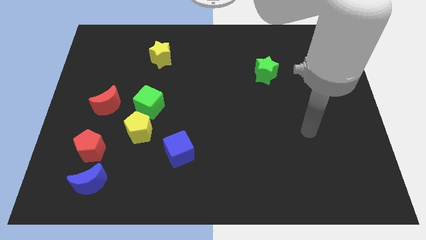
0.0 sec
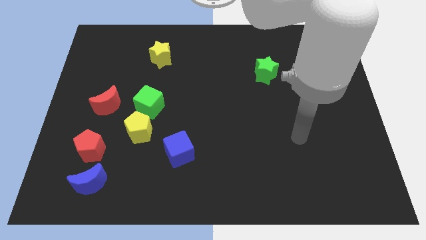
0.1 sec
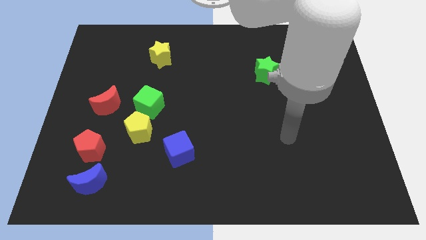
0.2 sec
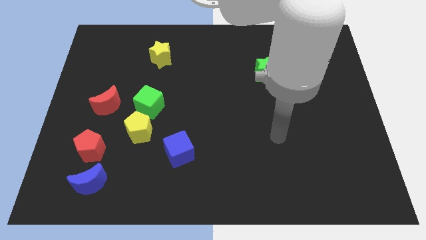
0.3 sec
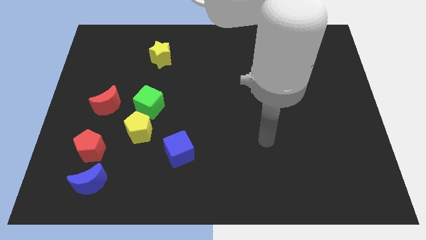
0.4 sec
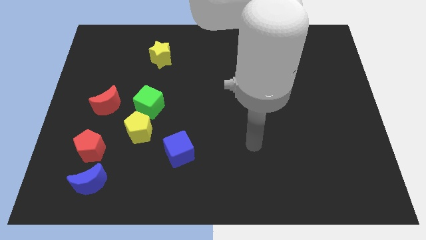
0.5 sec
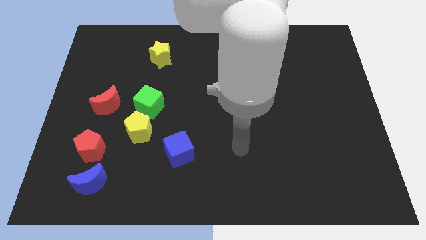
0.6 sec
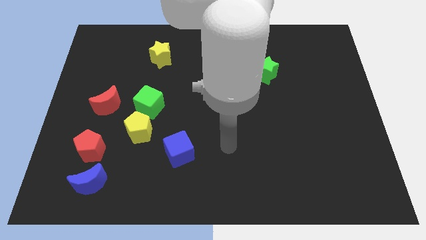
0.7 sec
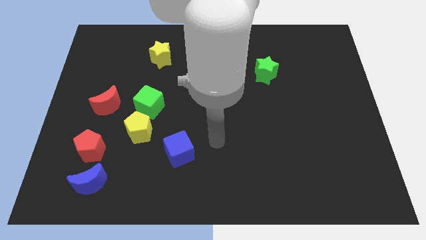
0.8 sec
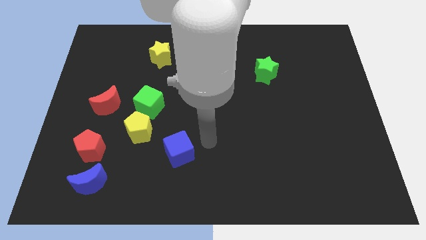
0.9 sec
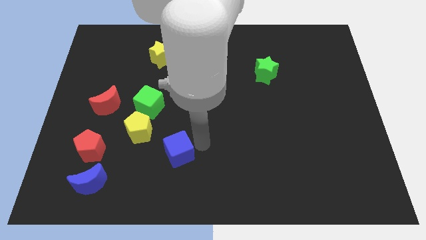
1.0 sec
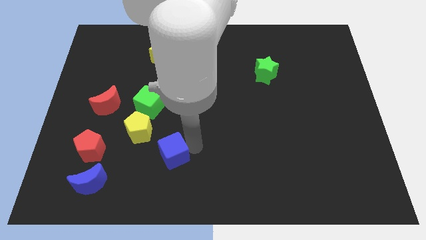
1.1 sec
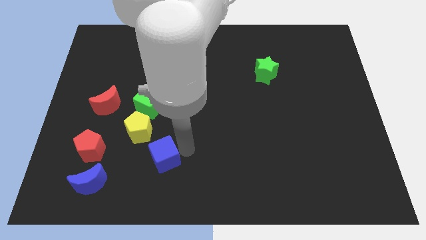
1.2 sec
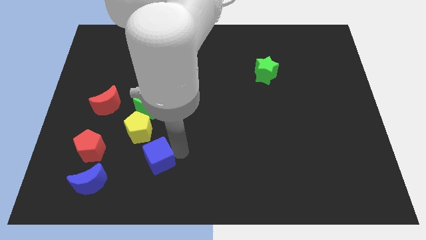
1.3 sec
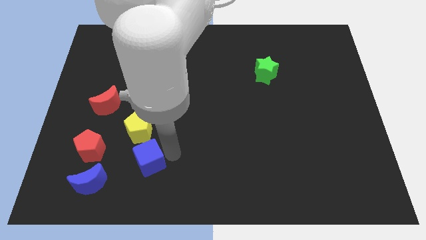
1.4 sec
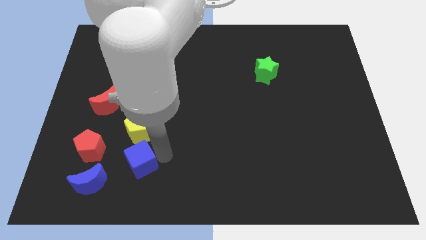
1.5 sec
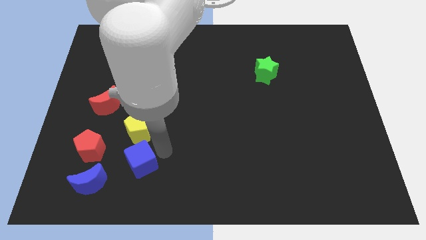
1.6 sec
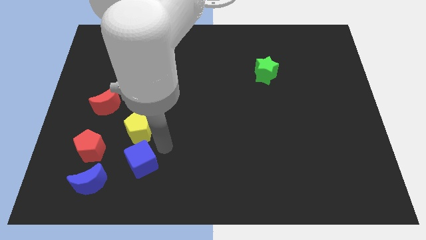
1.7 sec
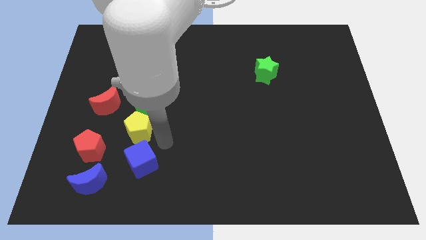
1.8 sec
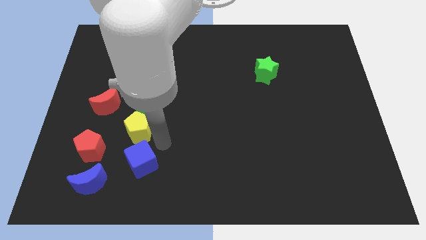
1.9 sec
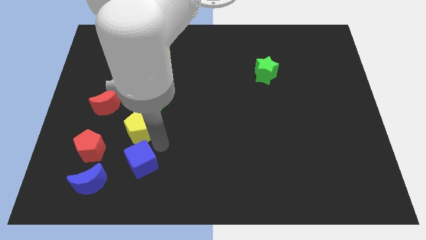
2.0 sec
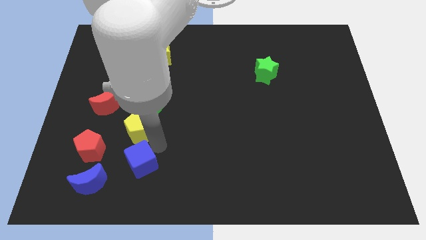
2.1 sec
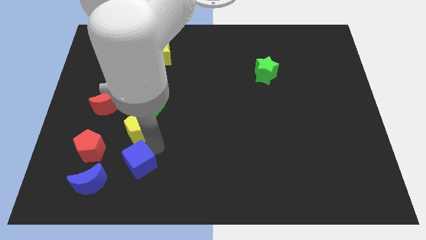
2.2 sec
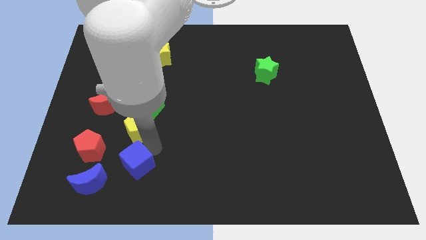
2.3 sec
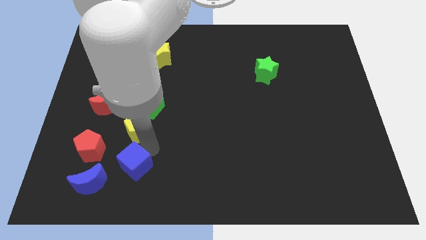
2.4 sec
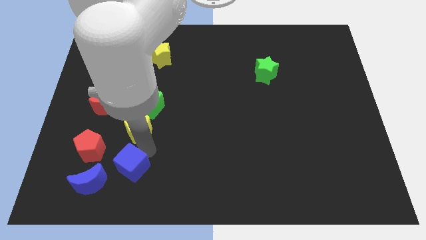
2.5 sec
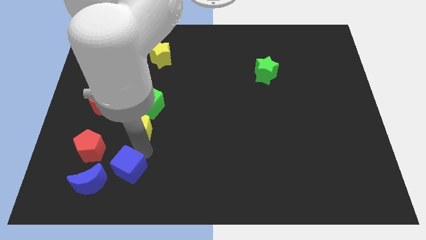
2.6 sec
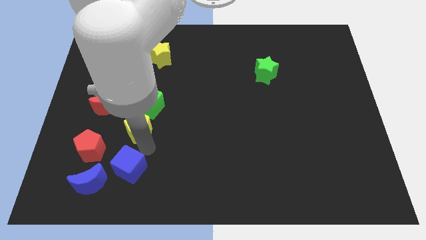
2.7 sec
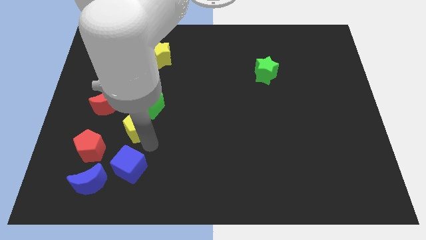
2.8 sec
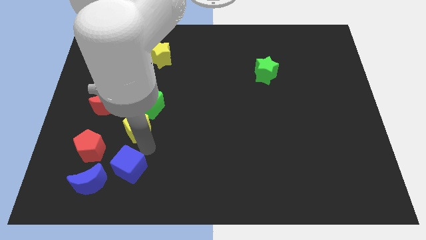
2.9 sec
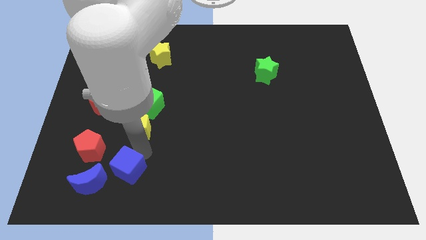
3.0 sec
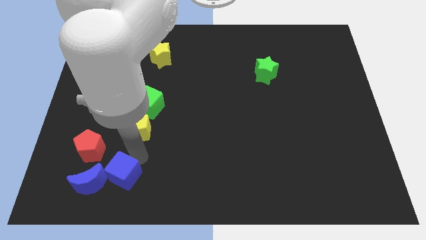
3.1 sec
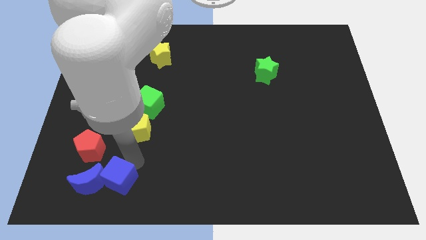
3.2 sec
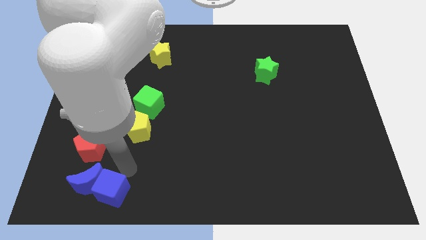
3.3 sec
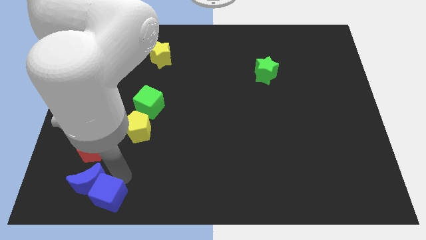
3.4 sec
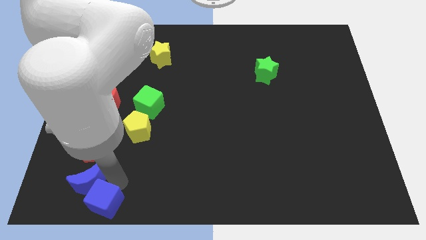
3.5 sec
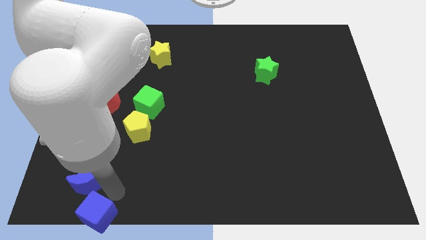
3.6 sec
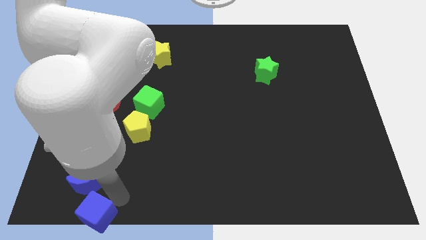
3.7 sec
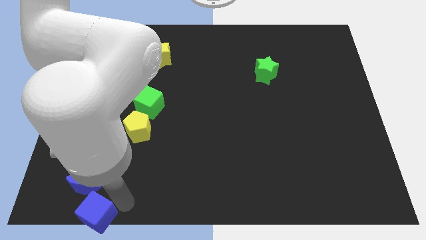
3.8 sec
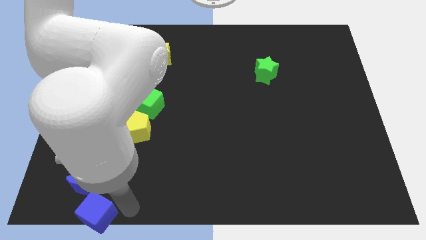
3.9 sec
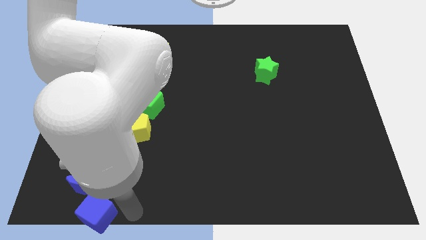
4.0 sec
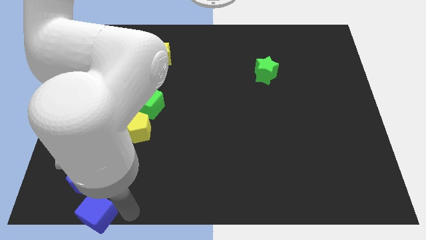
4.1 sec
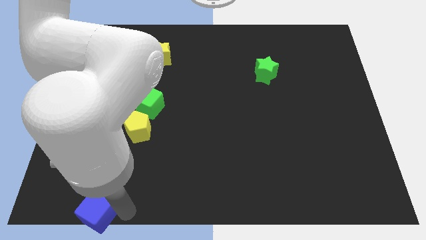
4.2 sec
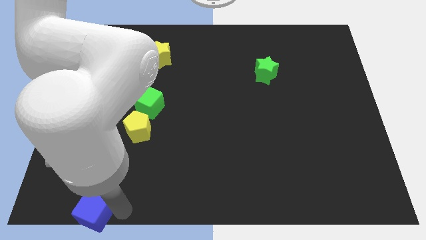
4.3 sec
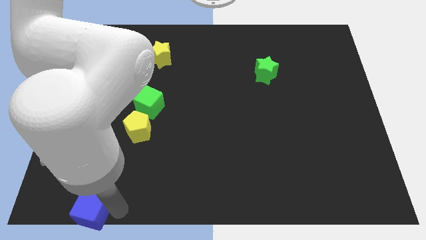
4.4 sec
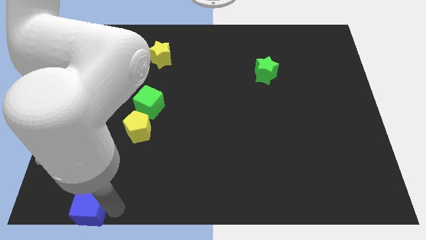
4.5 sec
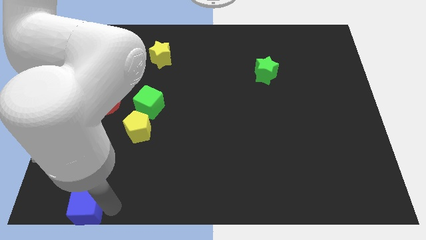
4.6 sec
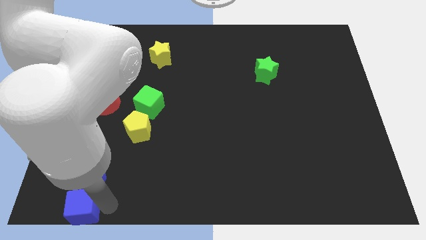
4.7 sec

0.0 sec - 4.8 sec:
put the blue cube to the bottom left corner
